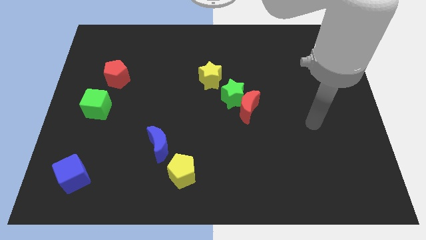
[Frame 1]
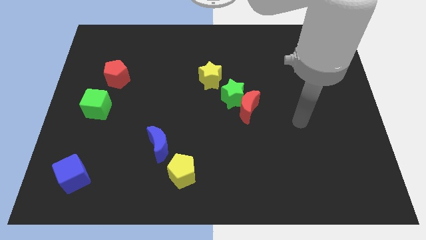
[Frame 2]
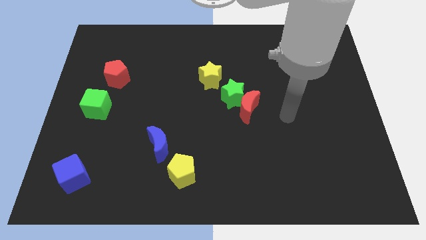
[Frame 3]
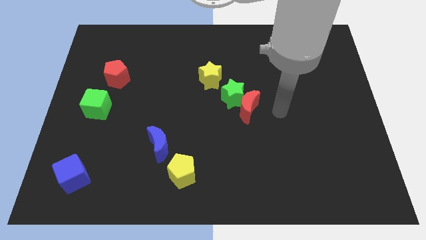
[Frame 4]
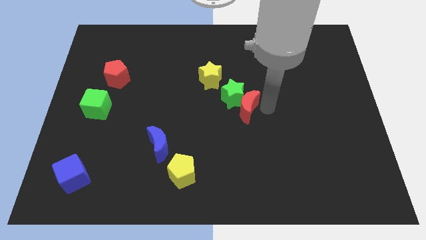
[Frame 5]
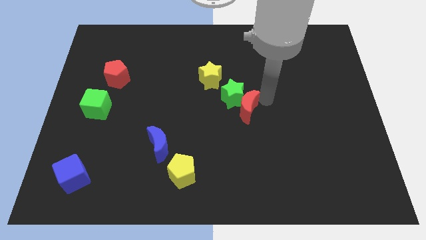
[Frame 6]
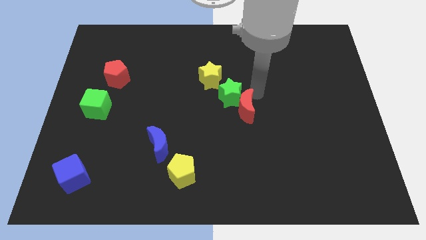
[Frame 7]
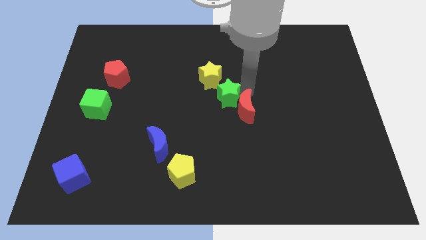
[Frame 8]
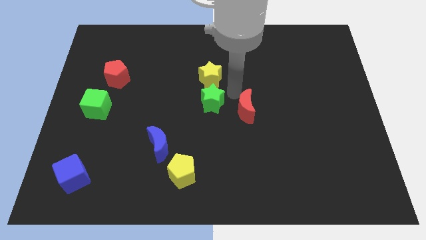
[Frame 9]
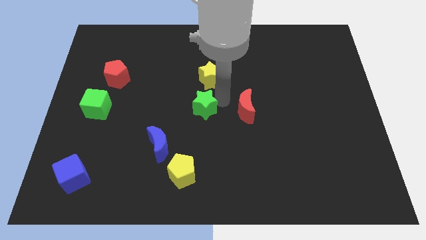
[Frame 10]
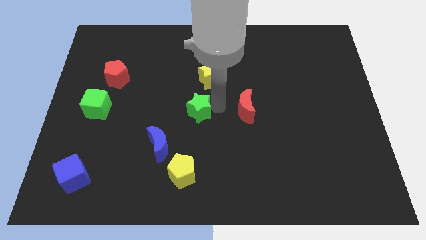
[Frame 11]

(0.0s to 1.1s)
separate the red moon from the green star

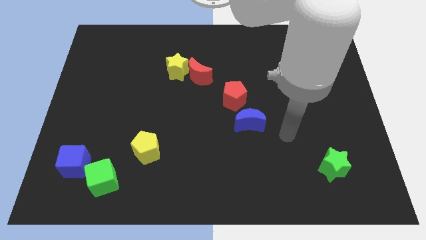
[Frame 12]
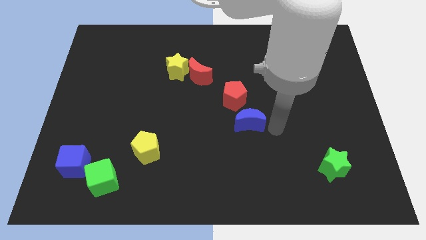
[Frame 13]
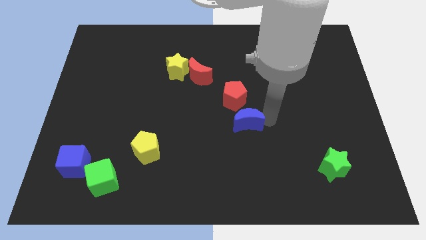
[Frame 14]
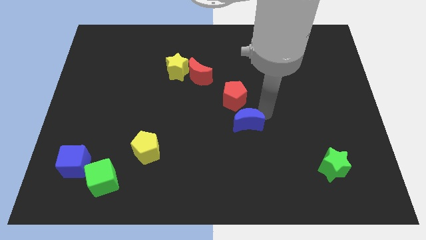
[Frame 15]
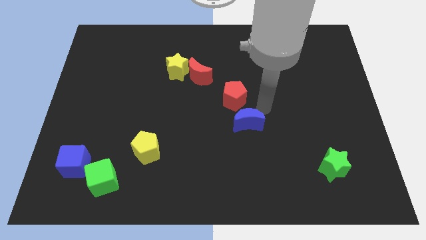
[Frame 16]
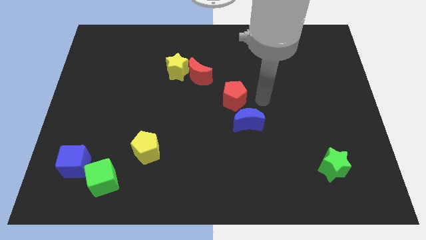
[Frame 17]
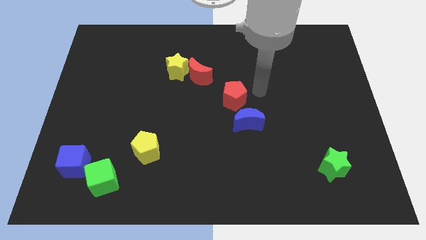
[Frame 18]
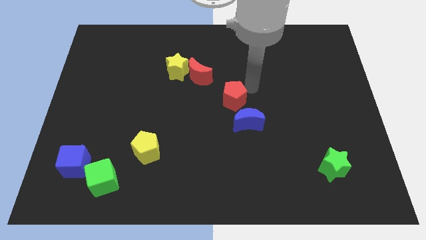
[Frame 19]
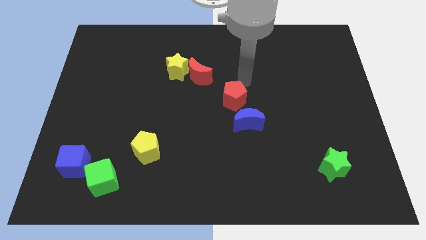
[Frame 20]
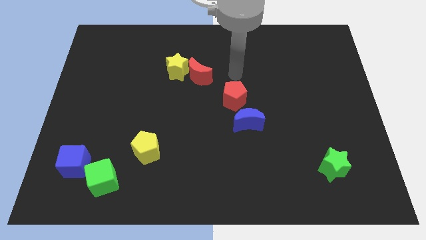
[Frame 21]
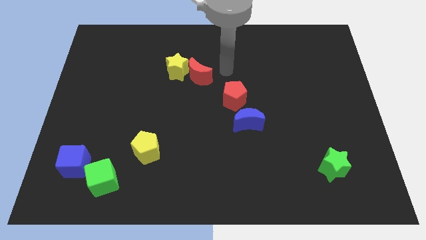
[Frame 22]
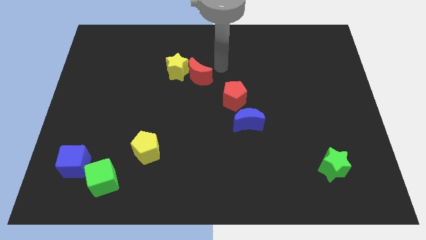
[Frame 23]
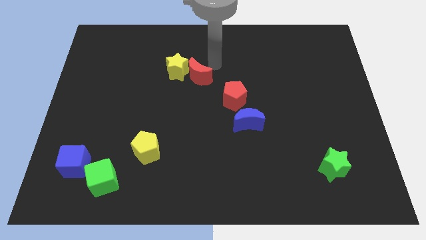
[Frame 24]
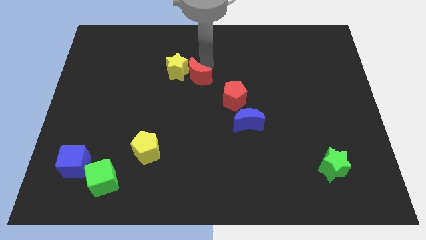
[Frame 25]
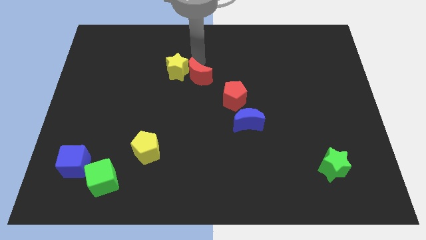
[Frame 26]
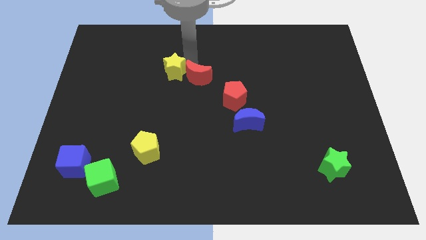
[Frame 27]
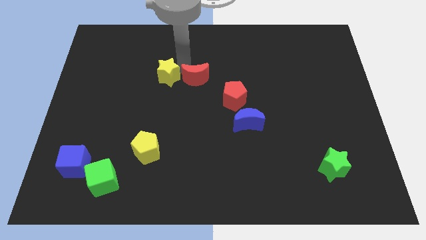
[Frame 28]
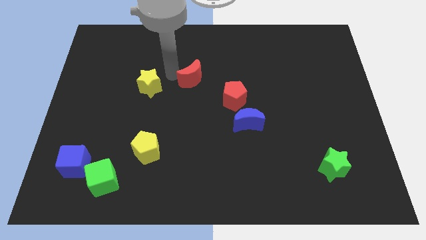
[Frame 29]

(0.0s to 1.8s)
separate the red moon from the yellow star

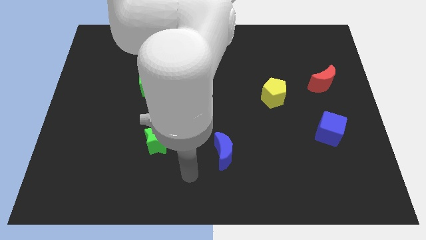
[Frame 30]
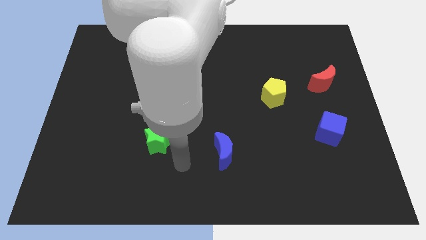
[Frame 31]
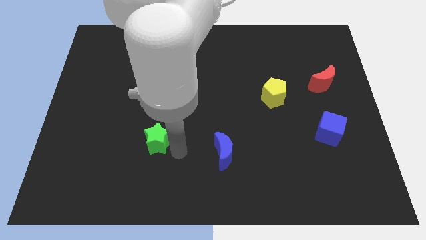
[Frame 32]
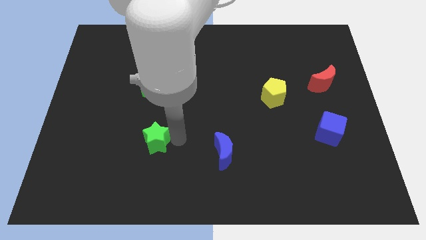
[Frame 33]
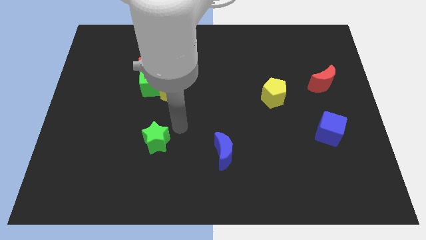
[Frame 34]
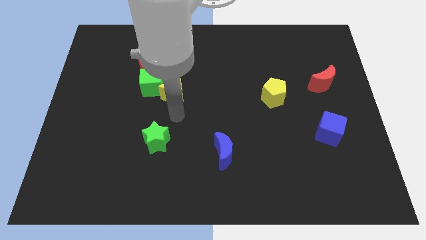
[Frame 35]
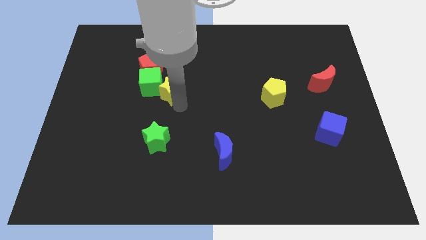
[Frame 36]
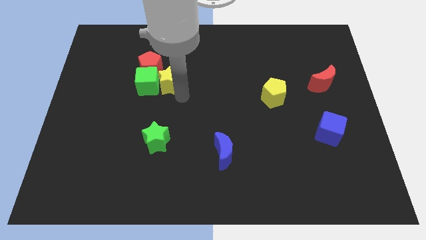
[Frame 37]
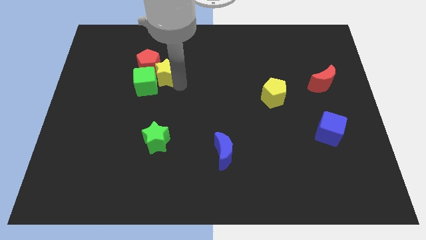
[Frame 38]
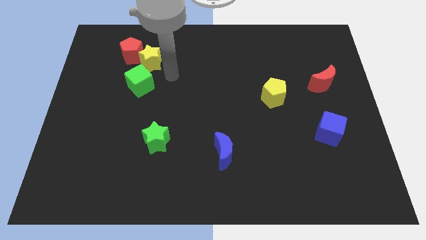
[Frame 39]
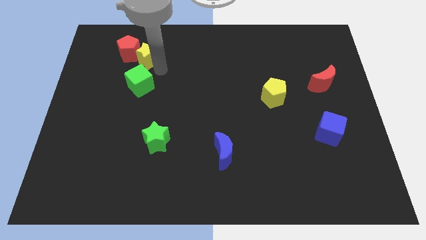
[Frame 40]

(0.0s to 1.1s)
separate the green cube from the red pentagon and yellow star

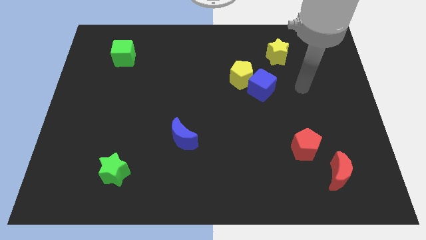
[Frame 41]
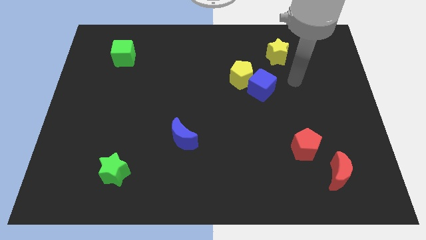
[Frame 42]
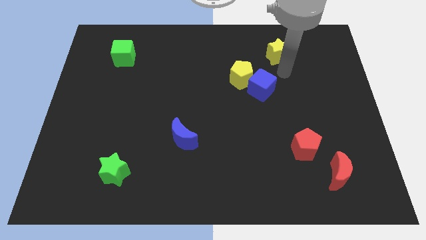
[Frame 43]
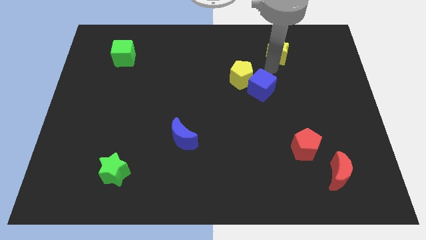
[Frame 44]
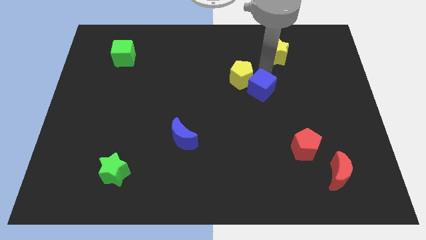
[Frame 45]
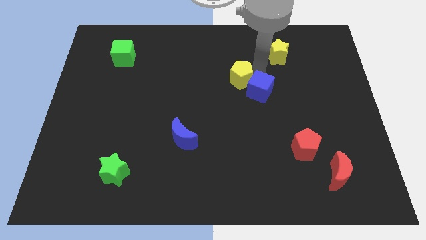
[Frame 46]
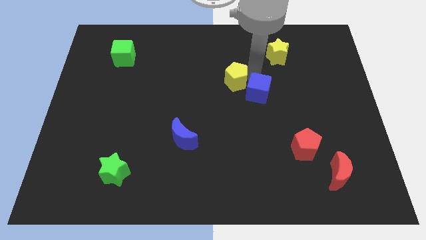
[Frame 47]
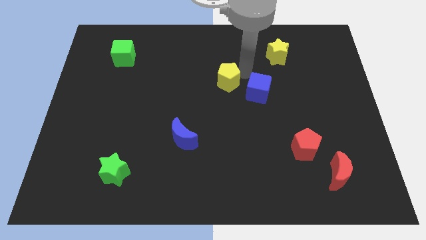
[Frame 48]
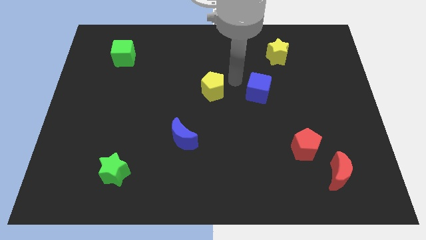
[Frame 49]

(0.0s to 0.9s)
pull the blue cube apart from the yellow pentagon

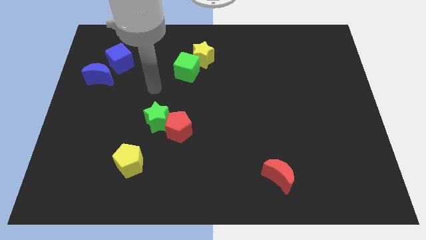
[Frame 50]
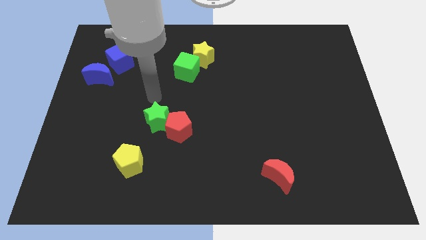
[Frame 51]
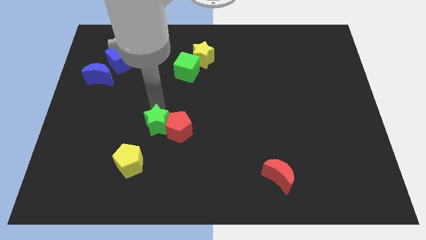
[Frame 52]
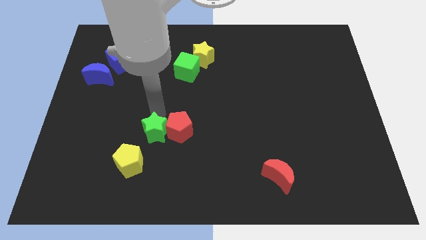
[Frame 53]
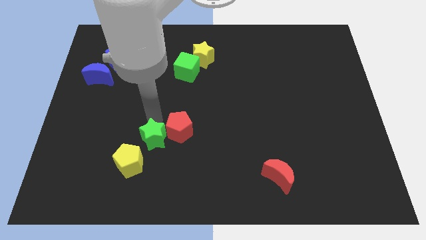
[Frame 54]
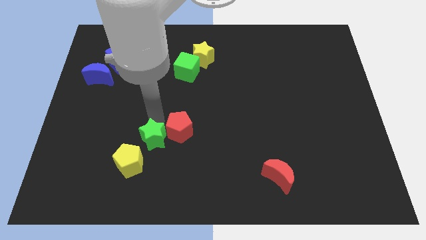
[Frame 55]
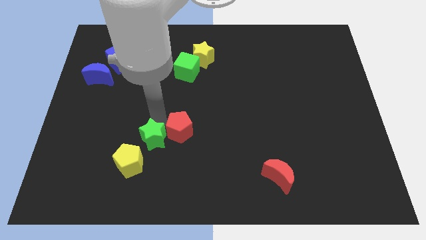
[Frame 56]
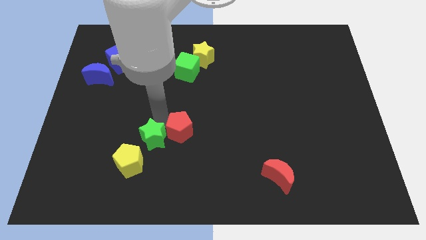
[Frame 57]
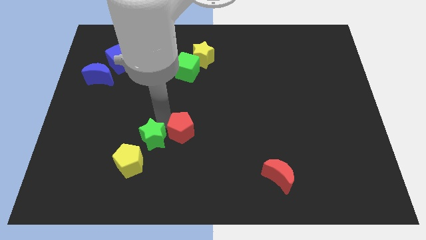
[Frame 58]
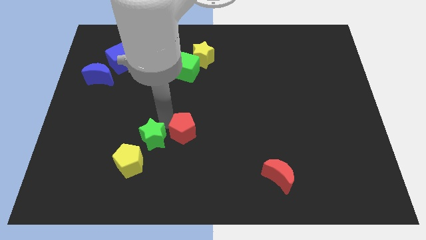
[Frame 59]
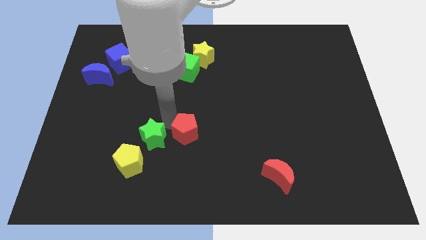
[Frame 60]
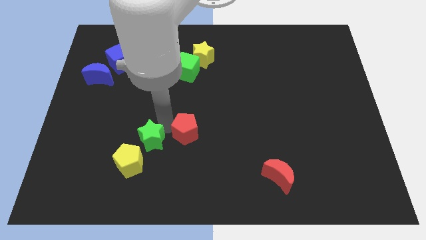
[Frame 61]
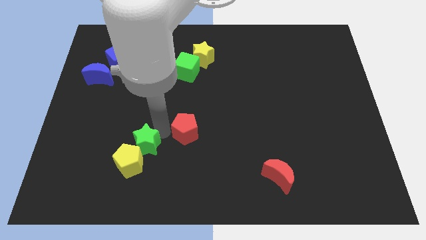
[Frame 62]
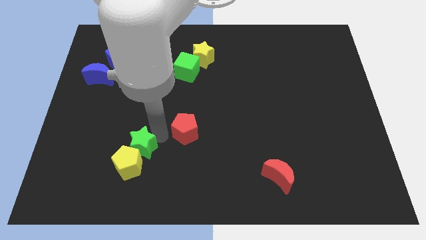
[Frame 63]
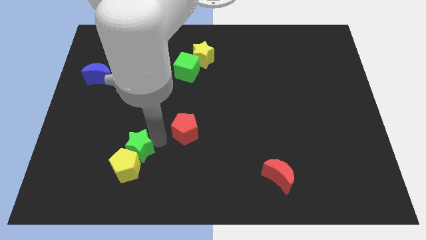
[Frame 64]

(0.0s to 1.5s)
separate the red pentagon from the green star

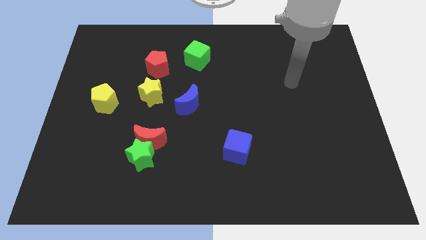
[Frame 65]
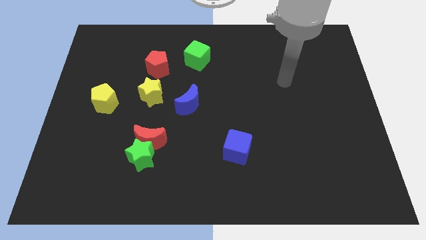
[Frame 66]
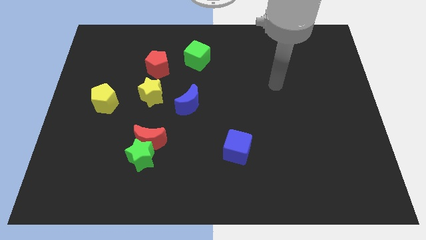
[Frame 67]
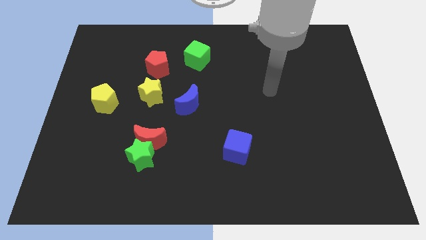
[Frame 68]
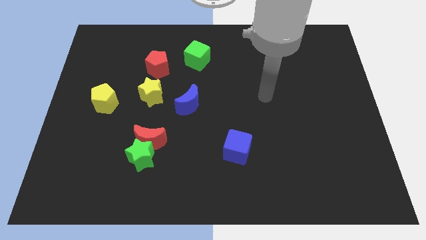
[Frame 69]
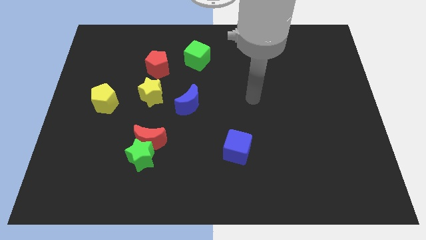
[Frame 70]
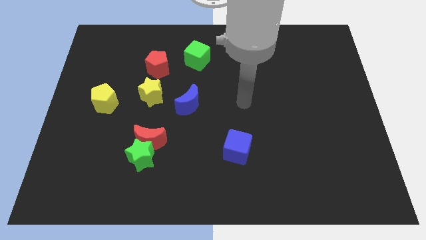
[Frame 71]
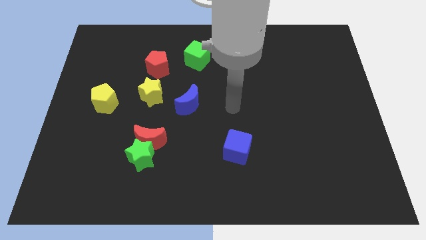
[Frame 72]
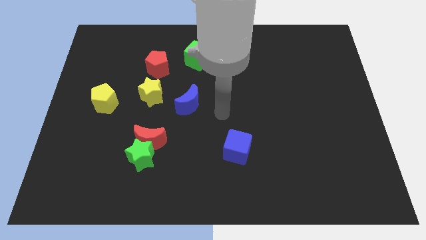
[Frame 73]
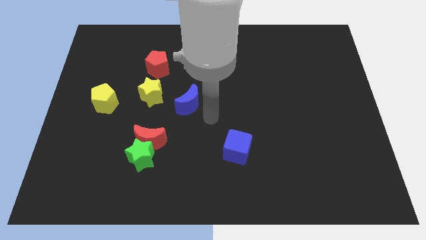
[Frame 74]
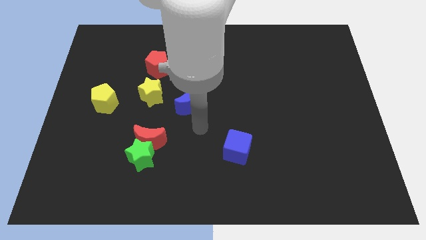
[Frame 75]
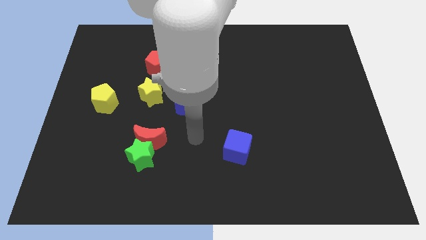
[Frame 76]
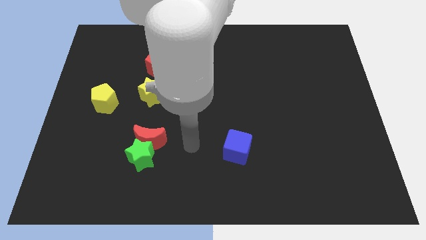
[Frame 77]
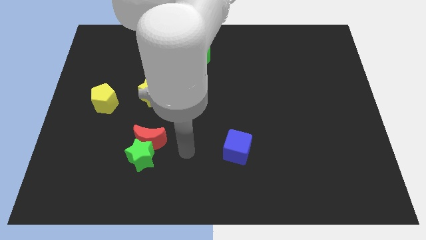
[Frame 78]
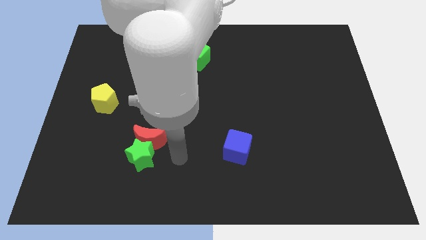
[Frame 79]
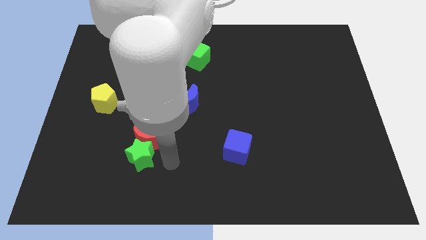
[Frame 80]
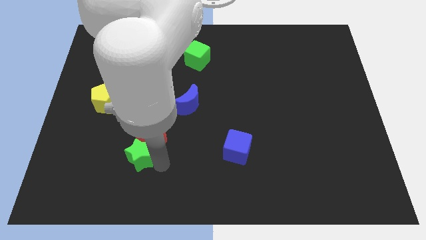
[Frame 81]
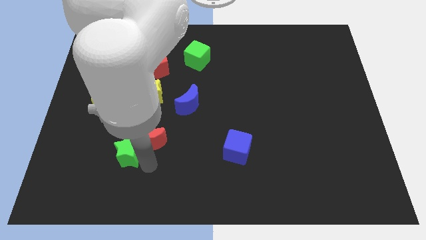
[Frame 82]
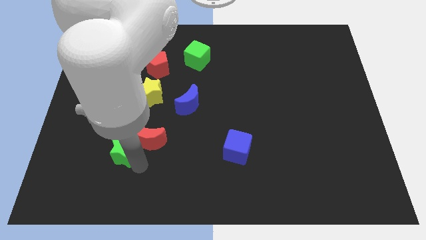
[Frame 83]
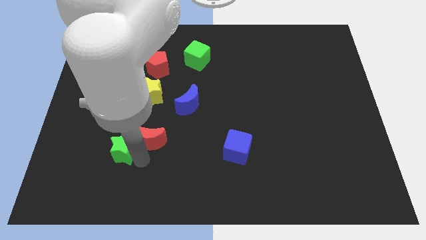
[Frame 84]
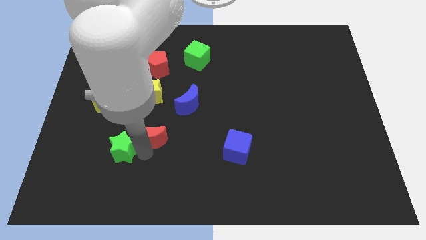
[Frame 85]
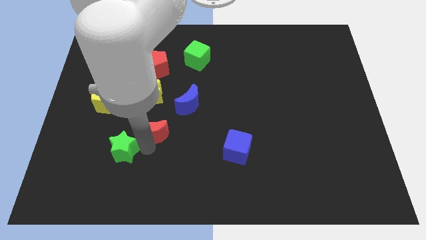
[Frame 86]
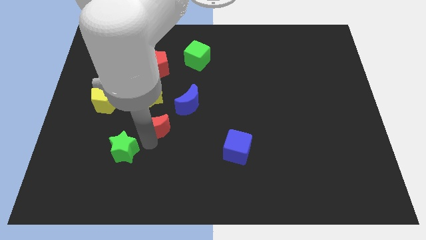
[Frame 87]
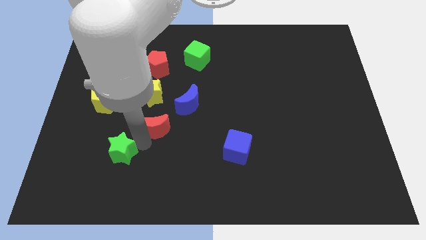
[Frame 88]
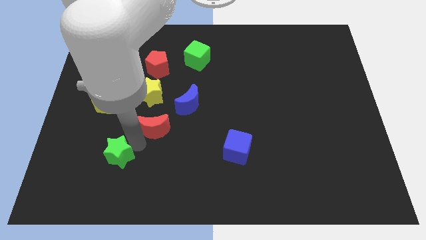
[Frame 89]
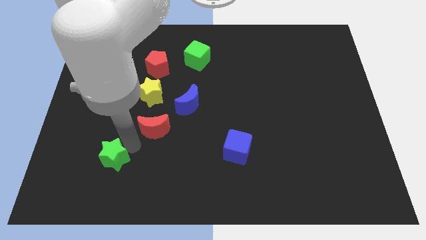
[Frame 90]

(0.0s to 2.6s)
move the red moon away from the green star

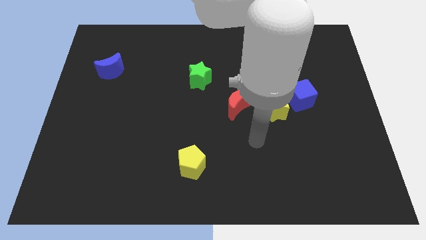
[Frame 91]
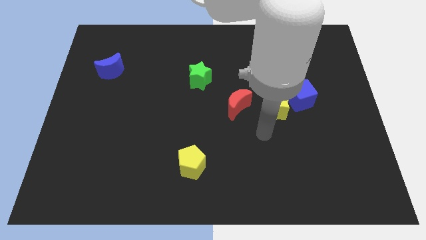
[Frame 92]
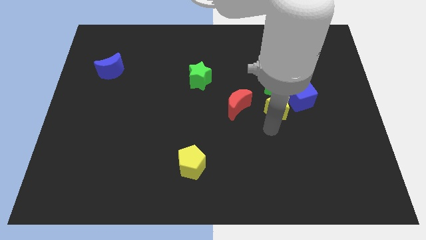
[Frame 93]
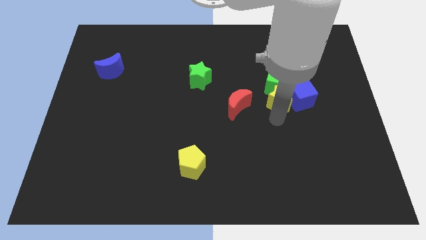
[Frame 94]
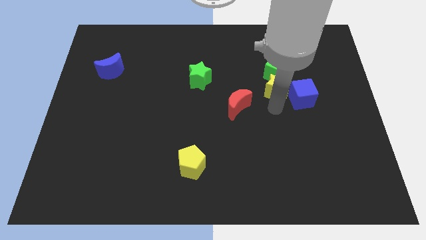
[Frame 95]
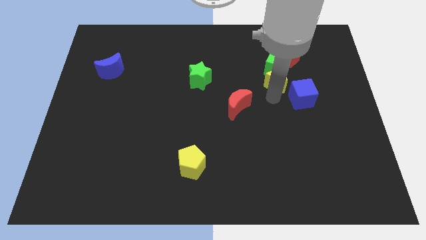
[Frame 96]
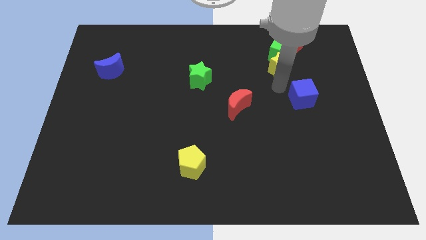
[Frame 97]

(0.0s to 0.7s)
pull the blue cube apart from the green cube and yellow star
